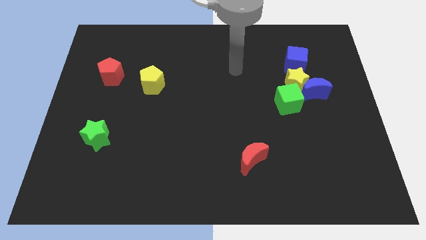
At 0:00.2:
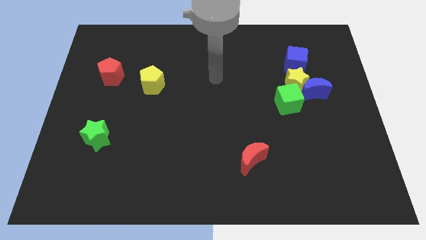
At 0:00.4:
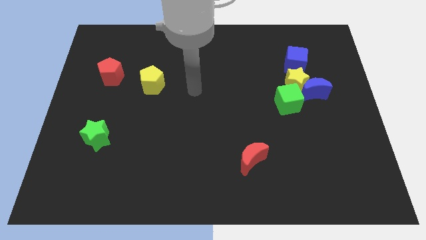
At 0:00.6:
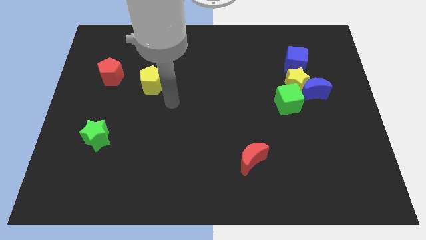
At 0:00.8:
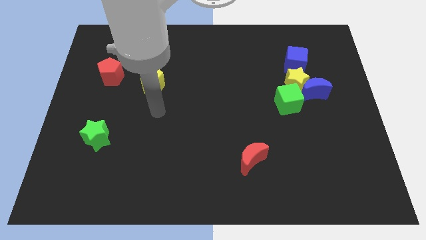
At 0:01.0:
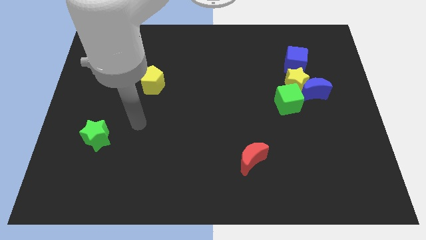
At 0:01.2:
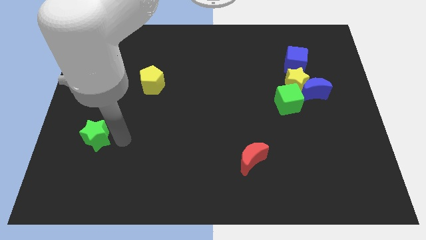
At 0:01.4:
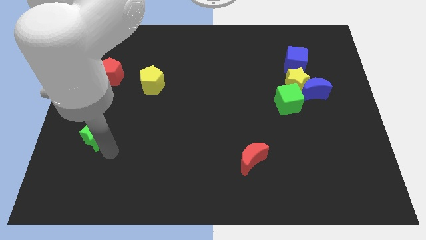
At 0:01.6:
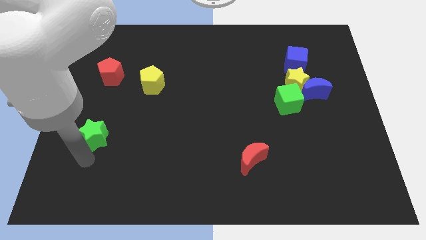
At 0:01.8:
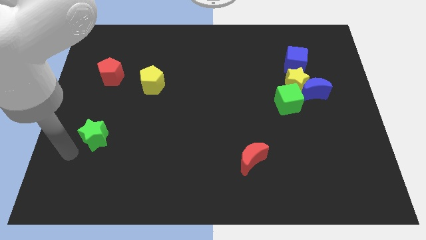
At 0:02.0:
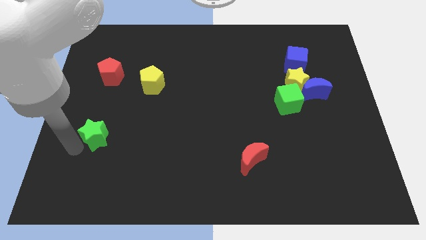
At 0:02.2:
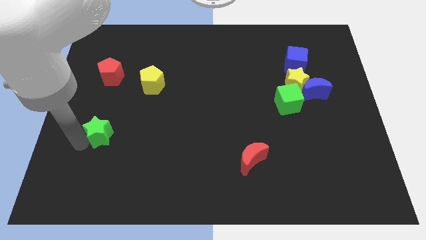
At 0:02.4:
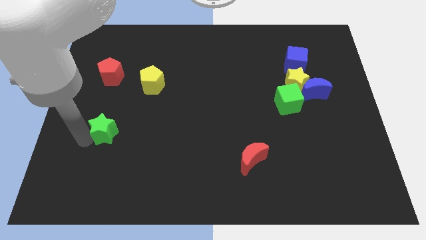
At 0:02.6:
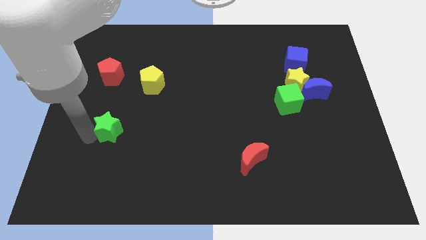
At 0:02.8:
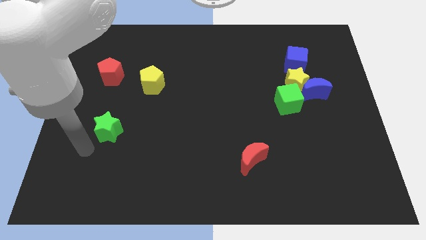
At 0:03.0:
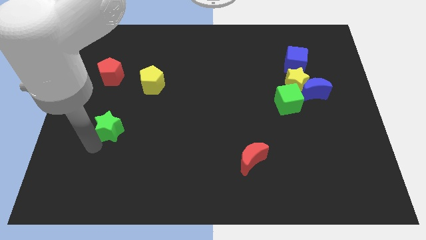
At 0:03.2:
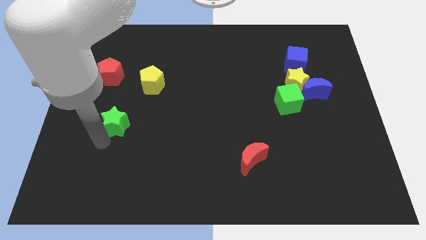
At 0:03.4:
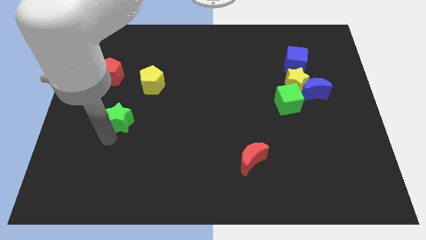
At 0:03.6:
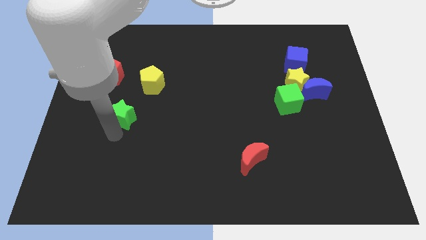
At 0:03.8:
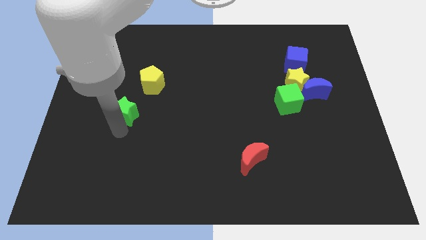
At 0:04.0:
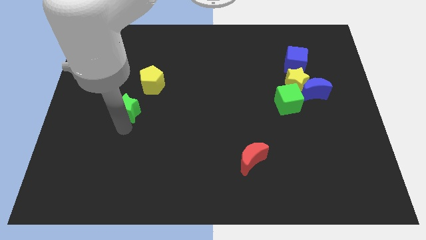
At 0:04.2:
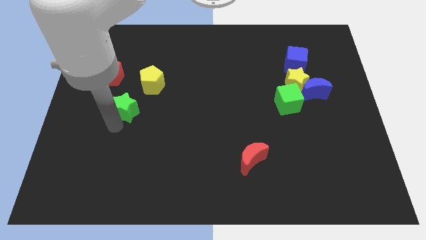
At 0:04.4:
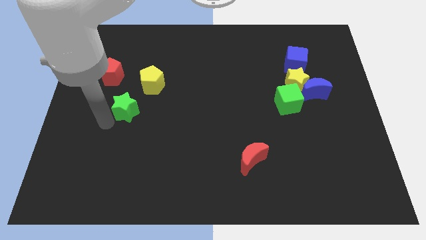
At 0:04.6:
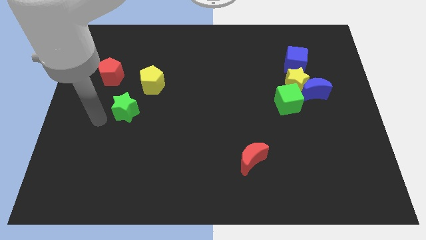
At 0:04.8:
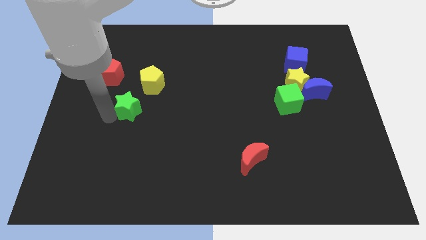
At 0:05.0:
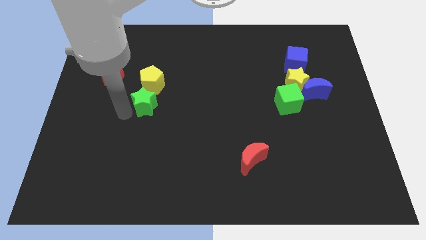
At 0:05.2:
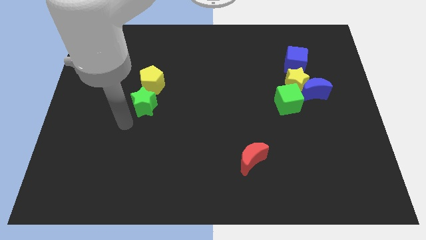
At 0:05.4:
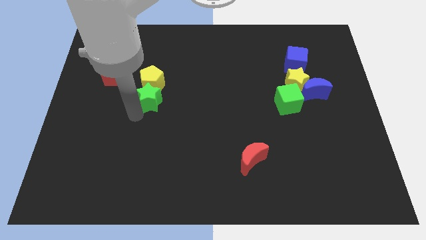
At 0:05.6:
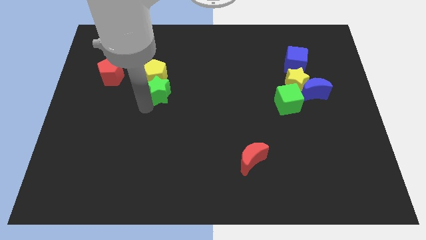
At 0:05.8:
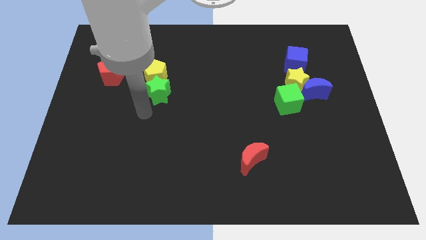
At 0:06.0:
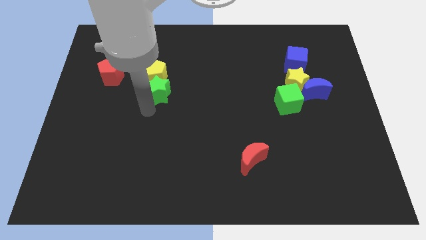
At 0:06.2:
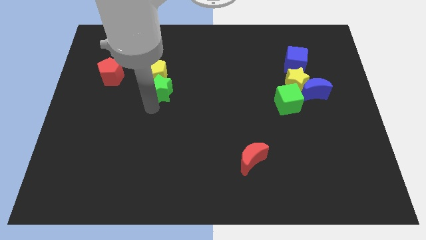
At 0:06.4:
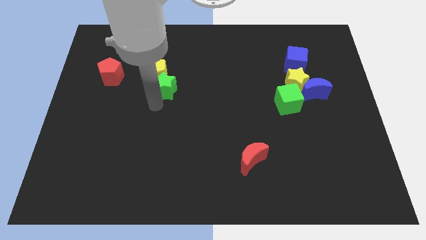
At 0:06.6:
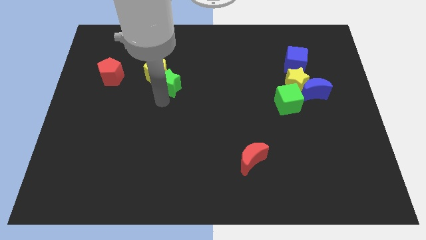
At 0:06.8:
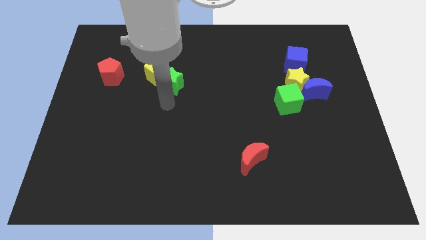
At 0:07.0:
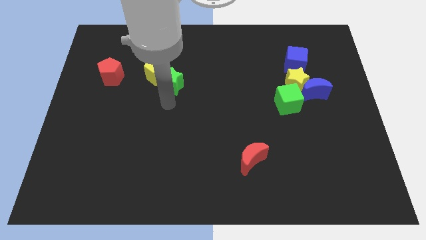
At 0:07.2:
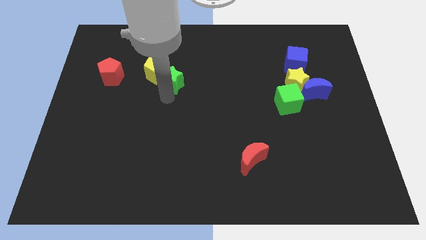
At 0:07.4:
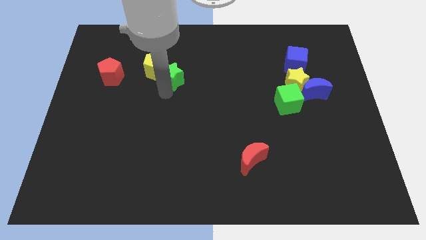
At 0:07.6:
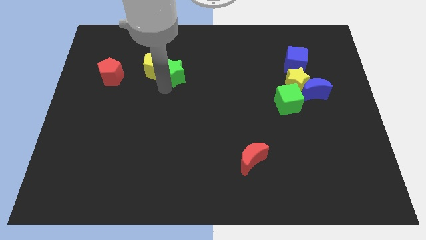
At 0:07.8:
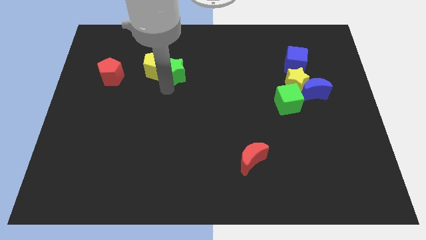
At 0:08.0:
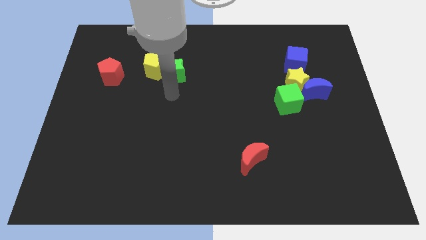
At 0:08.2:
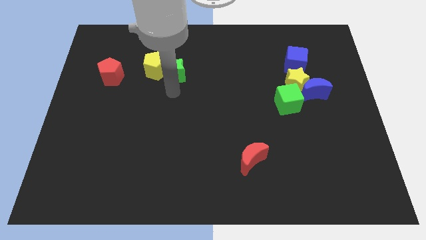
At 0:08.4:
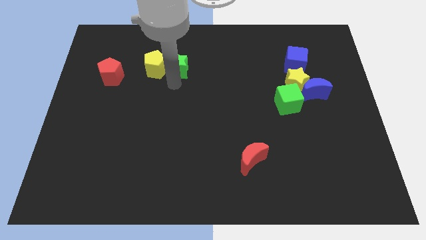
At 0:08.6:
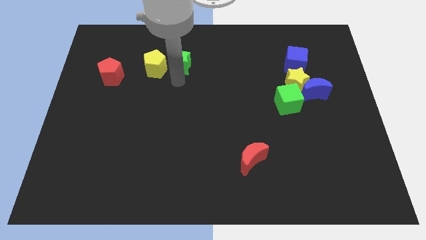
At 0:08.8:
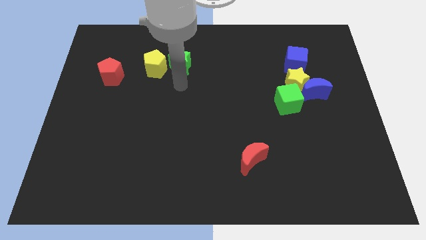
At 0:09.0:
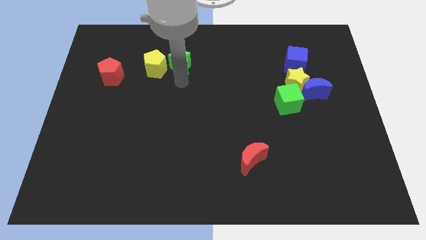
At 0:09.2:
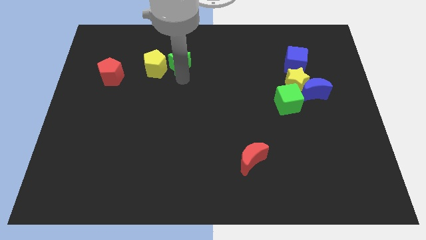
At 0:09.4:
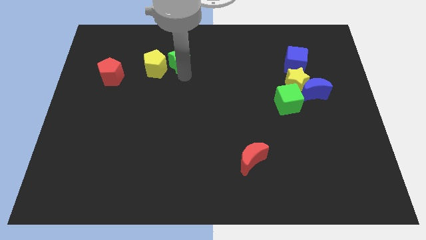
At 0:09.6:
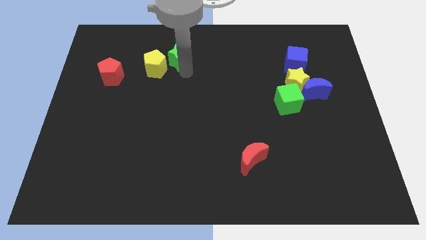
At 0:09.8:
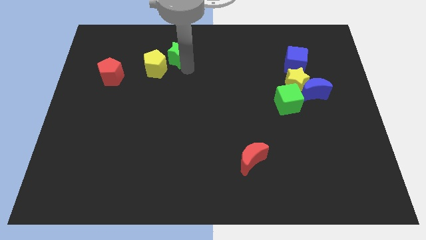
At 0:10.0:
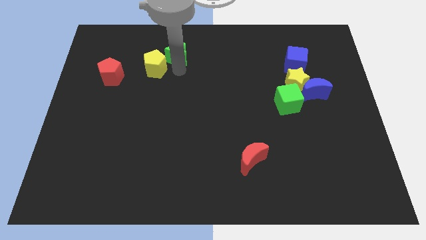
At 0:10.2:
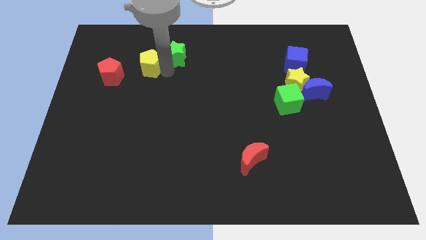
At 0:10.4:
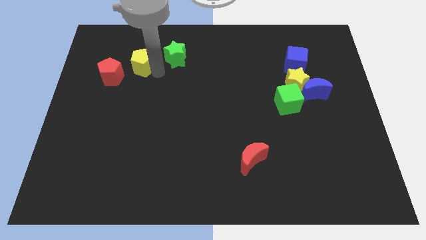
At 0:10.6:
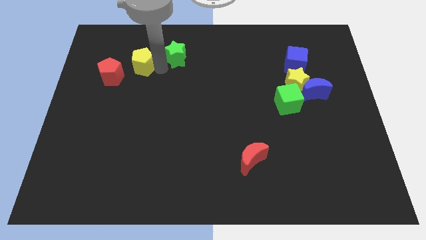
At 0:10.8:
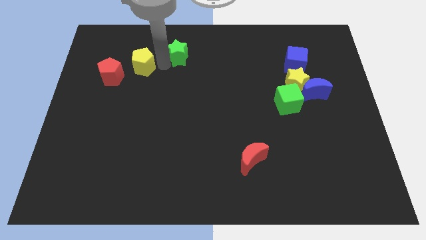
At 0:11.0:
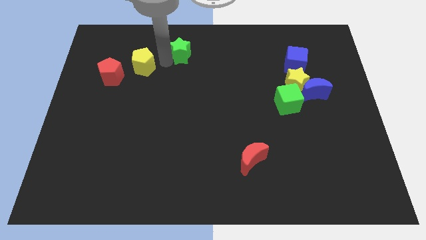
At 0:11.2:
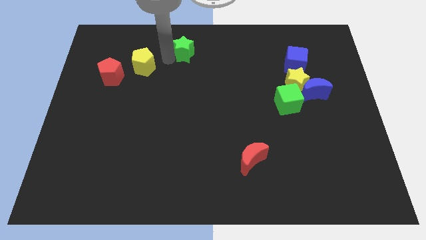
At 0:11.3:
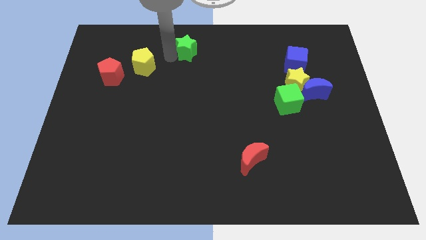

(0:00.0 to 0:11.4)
push the green star to the top
